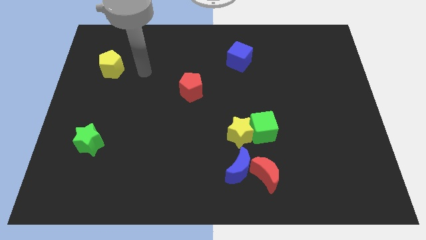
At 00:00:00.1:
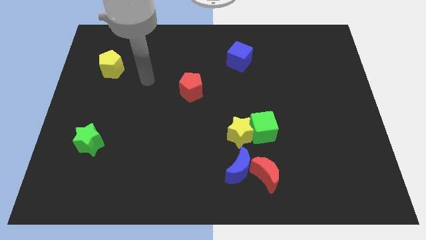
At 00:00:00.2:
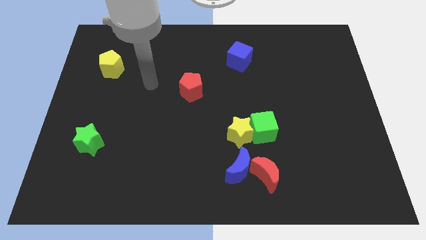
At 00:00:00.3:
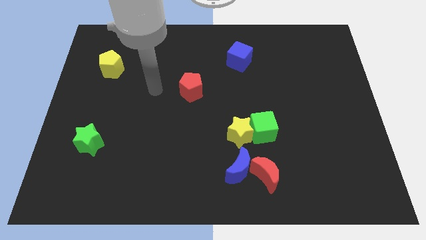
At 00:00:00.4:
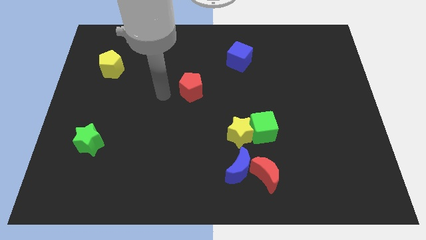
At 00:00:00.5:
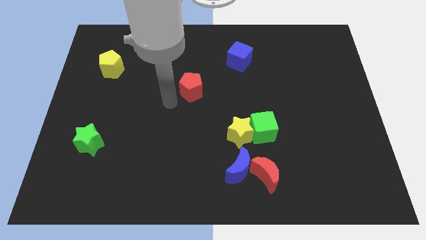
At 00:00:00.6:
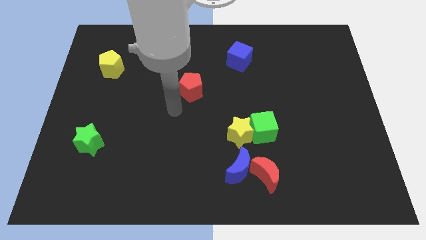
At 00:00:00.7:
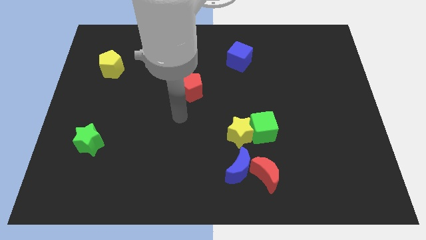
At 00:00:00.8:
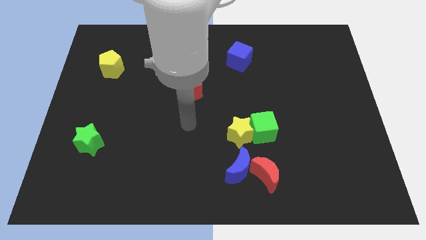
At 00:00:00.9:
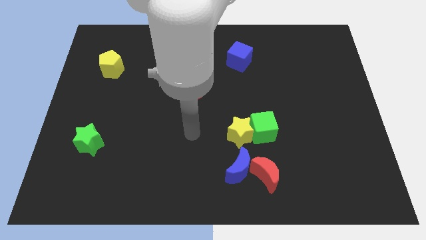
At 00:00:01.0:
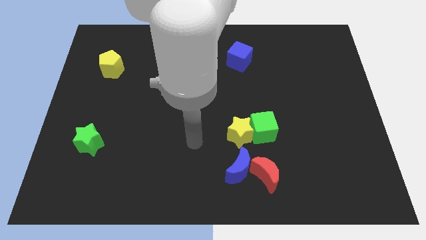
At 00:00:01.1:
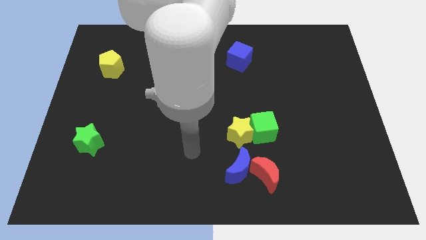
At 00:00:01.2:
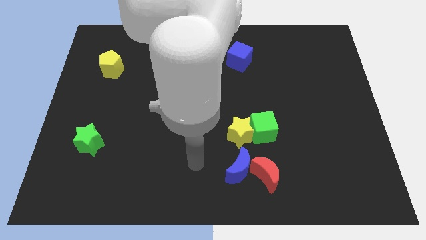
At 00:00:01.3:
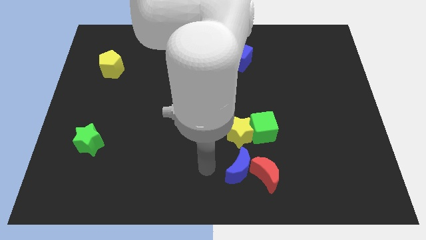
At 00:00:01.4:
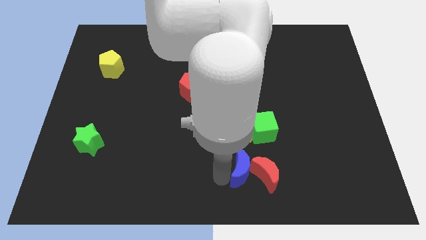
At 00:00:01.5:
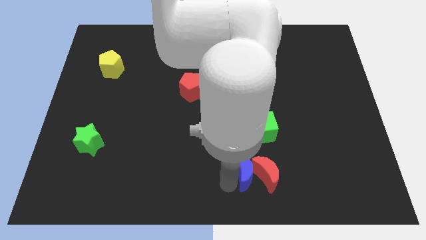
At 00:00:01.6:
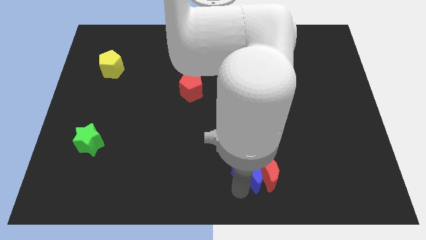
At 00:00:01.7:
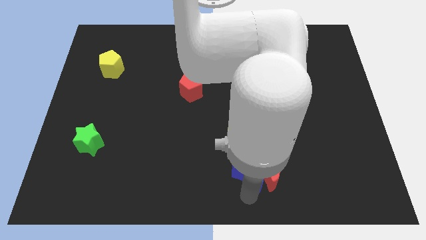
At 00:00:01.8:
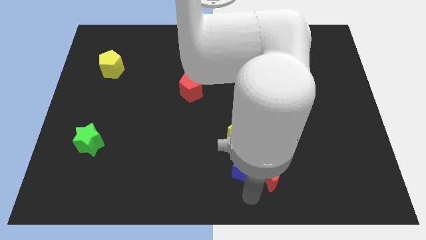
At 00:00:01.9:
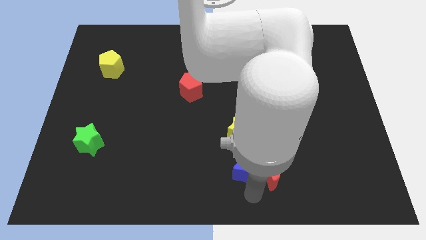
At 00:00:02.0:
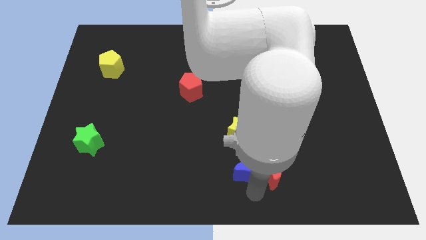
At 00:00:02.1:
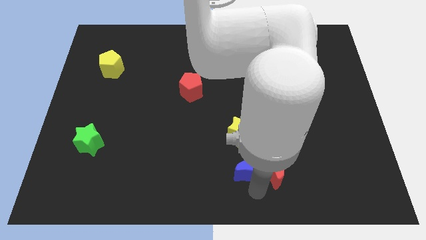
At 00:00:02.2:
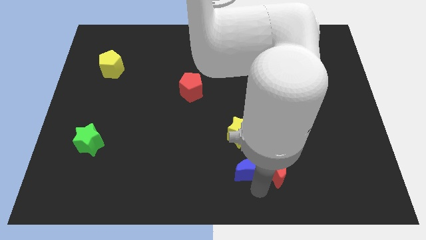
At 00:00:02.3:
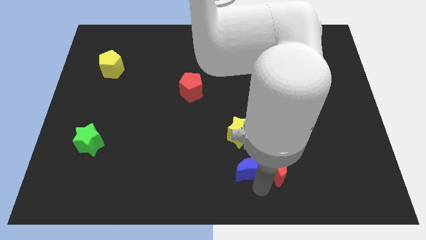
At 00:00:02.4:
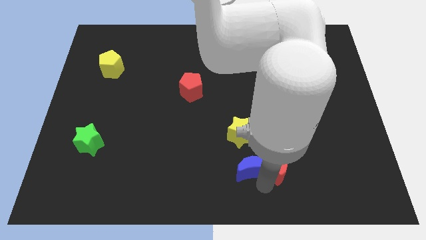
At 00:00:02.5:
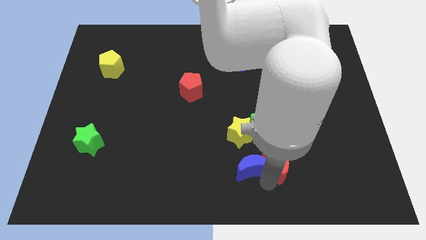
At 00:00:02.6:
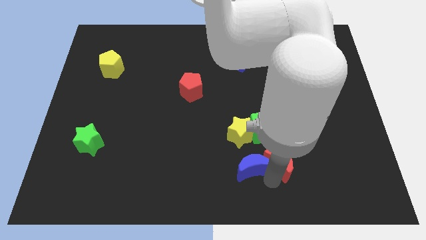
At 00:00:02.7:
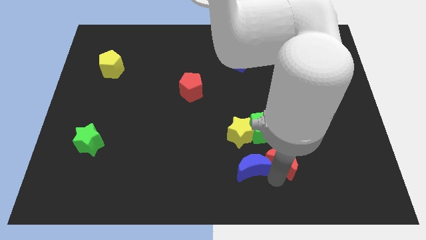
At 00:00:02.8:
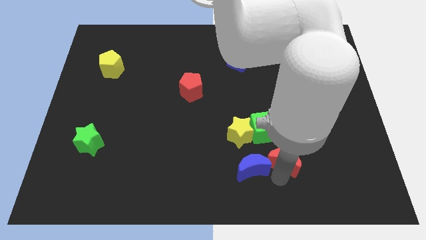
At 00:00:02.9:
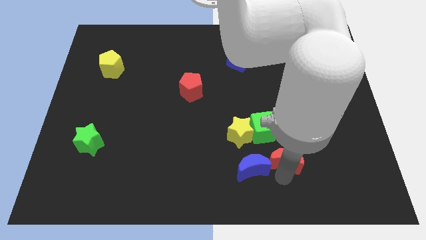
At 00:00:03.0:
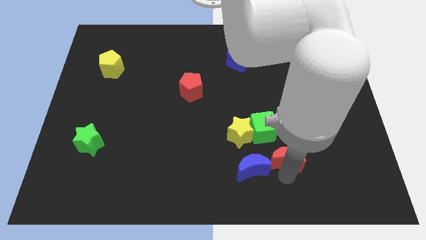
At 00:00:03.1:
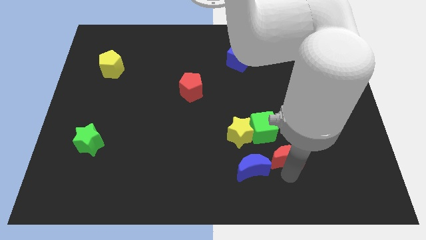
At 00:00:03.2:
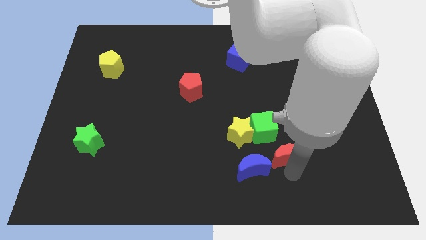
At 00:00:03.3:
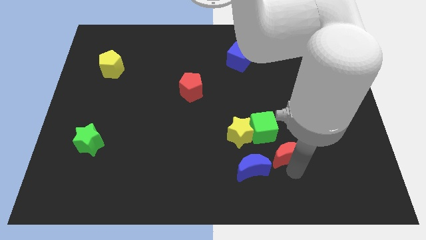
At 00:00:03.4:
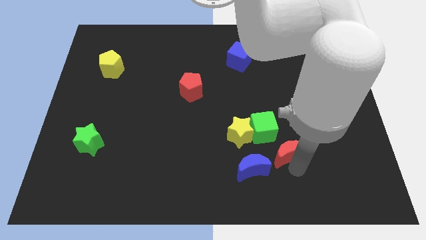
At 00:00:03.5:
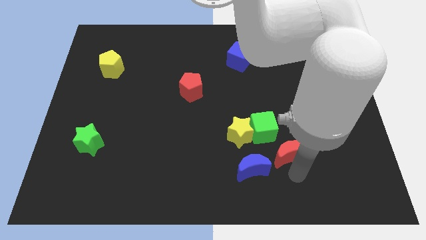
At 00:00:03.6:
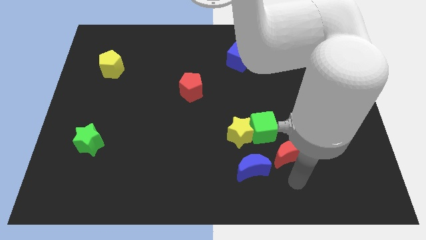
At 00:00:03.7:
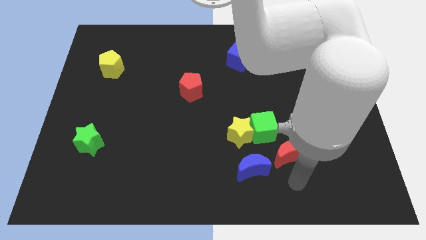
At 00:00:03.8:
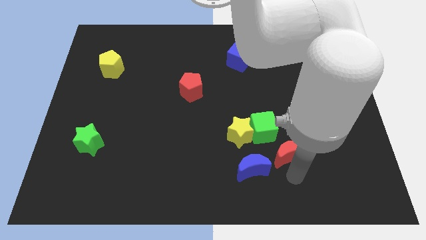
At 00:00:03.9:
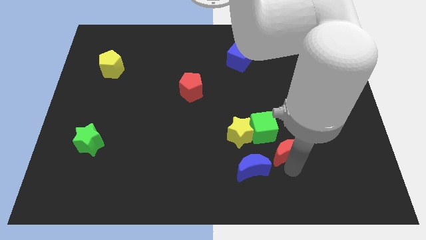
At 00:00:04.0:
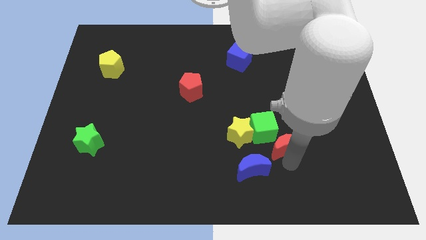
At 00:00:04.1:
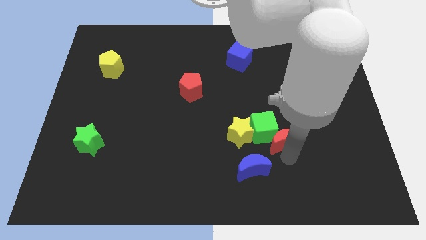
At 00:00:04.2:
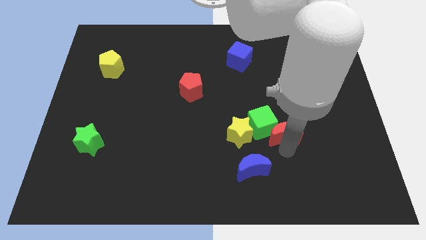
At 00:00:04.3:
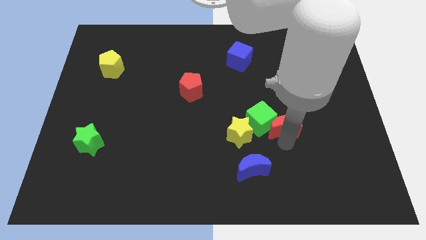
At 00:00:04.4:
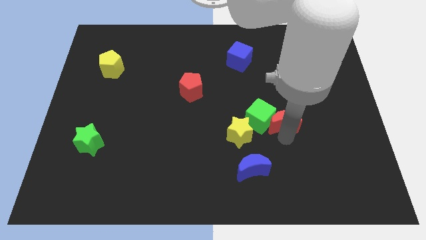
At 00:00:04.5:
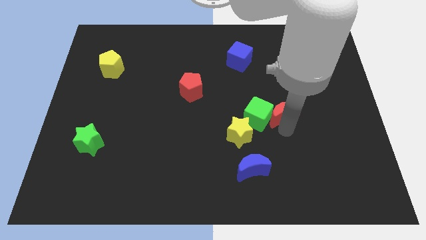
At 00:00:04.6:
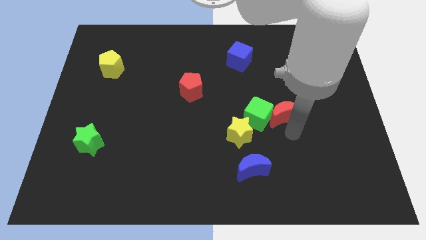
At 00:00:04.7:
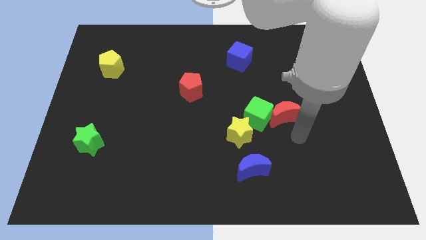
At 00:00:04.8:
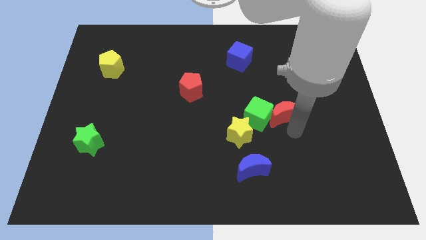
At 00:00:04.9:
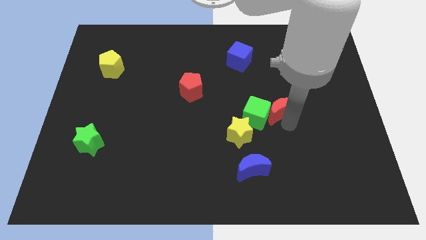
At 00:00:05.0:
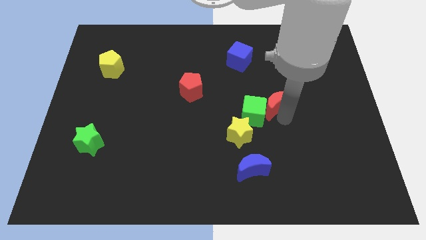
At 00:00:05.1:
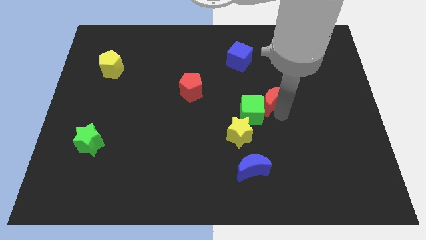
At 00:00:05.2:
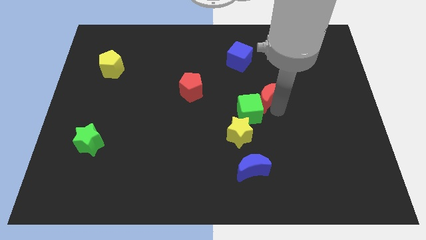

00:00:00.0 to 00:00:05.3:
push the red moon upwards

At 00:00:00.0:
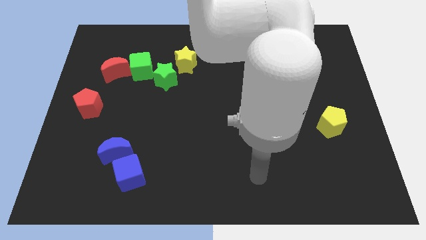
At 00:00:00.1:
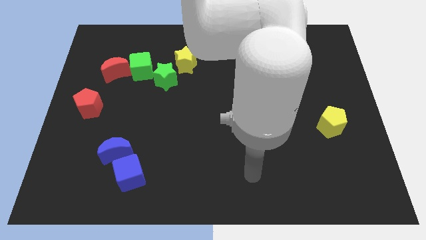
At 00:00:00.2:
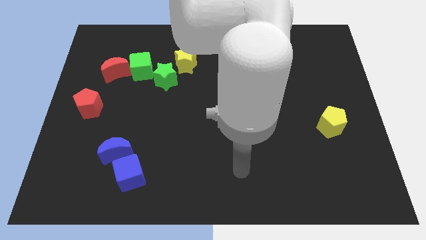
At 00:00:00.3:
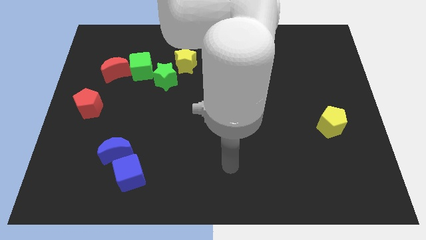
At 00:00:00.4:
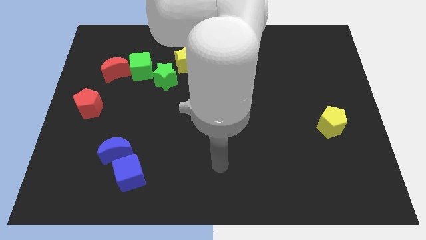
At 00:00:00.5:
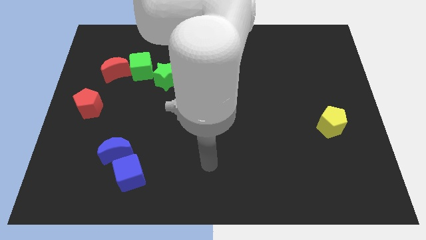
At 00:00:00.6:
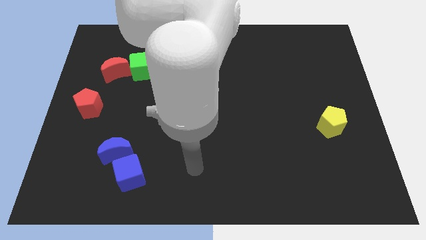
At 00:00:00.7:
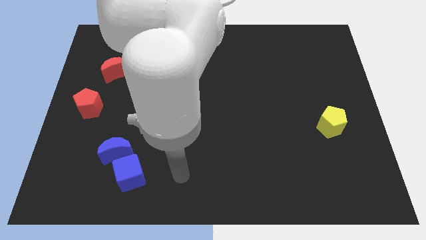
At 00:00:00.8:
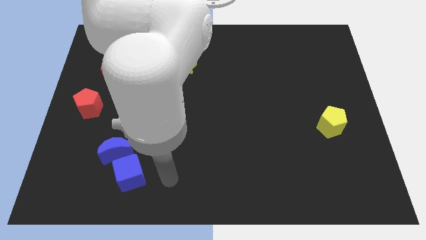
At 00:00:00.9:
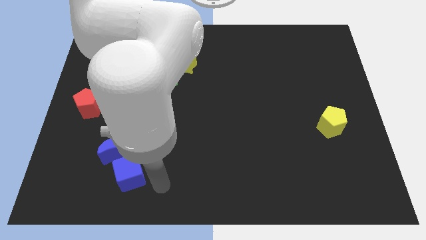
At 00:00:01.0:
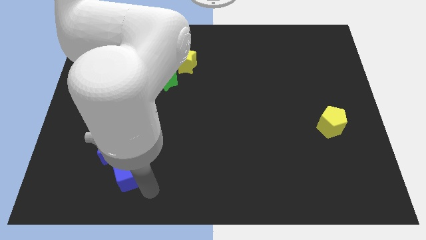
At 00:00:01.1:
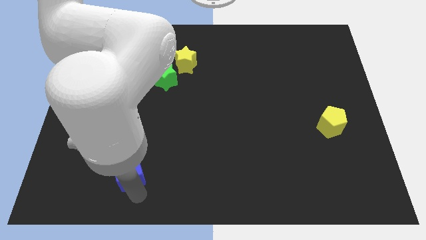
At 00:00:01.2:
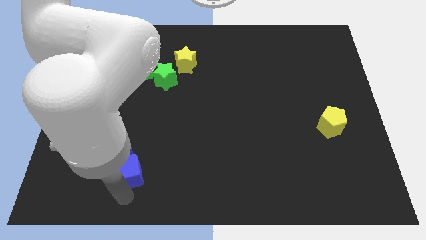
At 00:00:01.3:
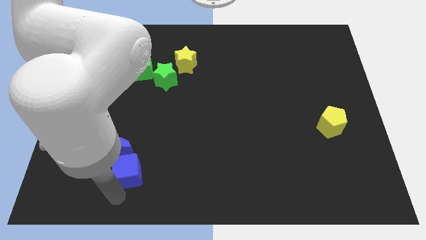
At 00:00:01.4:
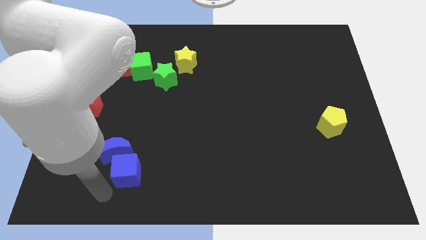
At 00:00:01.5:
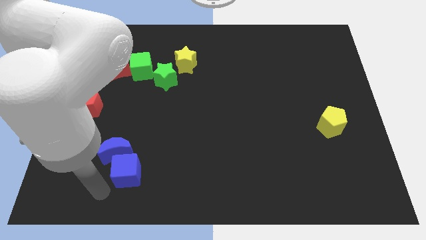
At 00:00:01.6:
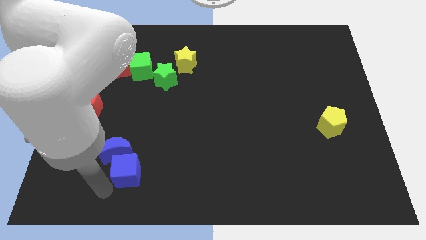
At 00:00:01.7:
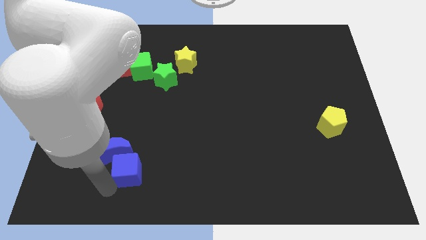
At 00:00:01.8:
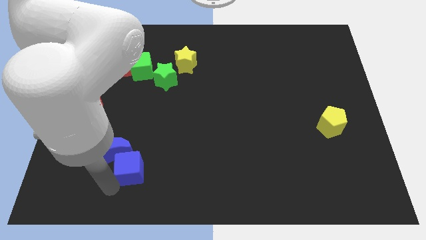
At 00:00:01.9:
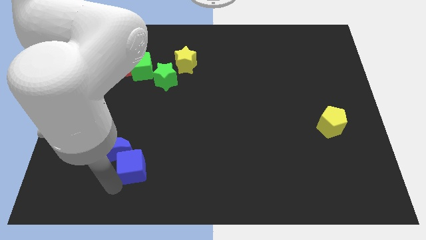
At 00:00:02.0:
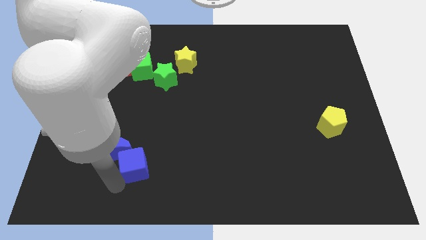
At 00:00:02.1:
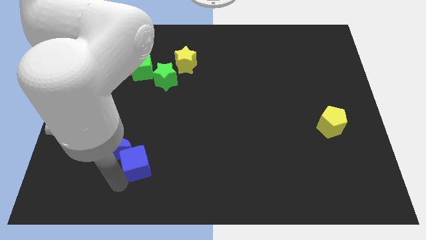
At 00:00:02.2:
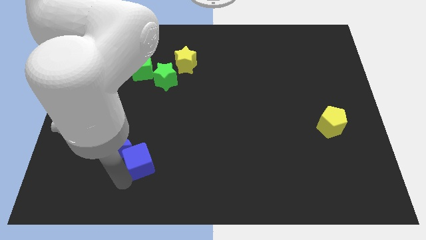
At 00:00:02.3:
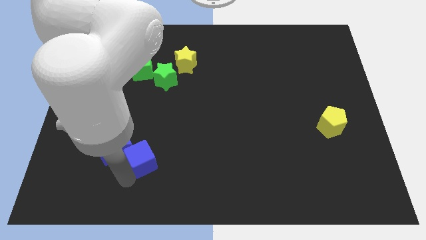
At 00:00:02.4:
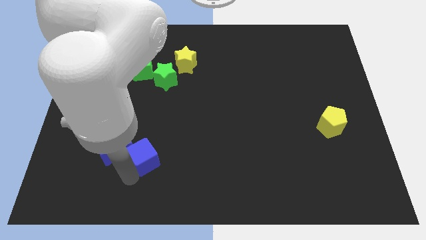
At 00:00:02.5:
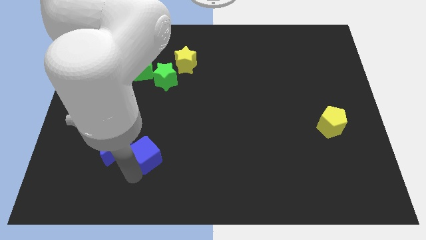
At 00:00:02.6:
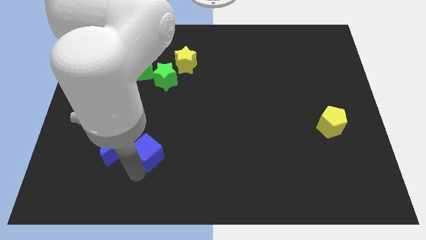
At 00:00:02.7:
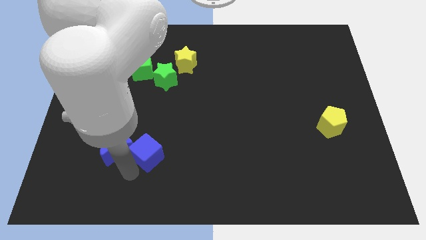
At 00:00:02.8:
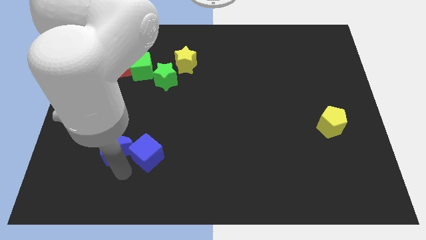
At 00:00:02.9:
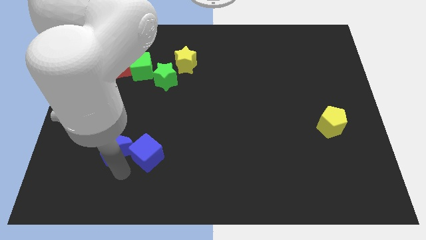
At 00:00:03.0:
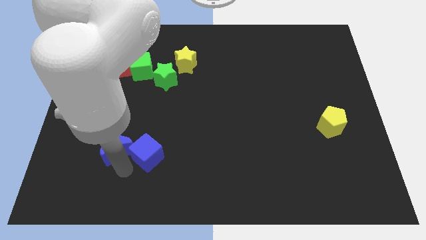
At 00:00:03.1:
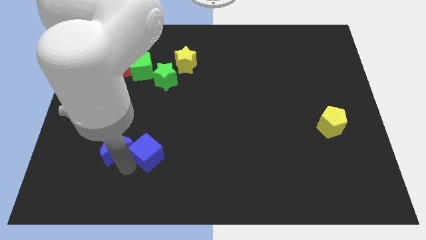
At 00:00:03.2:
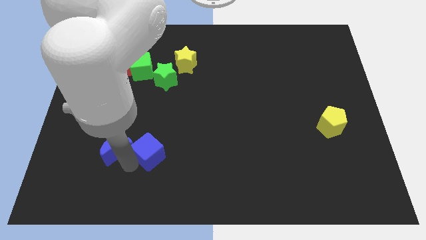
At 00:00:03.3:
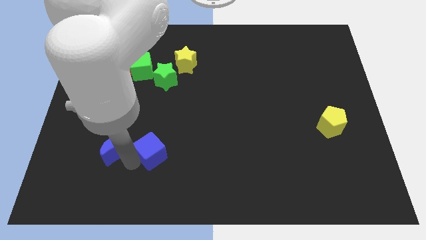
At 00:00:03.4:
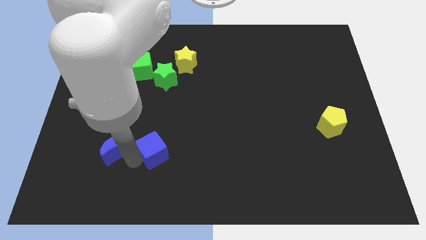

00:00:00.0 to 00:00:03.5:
slightly slide the blue cube upwards and to the right
